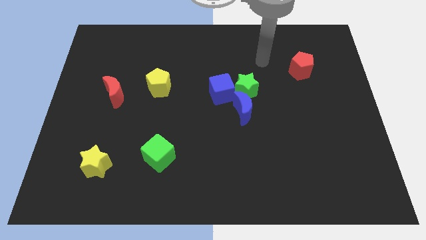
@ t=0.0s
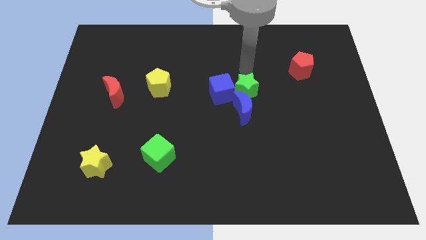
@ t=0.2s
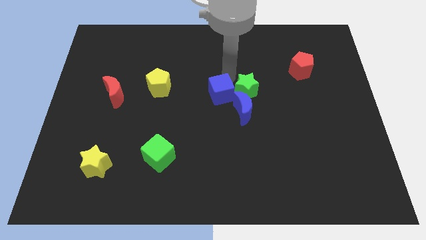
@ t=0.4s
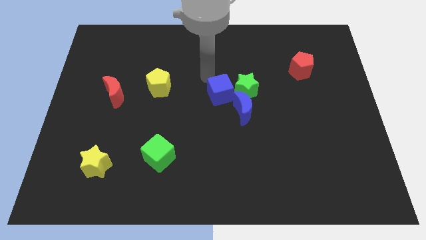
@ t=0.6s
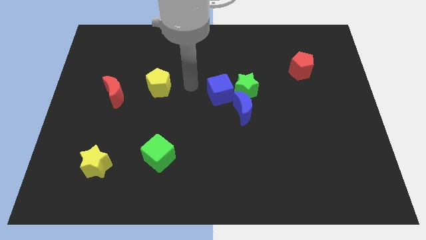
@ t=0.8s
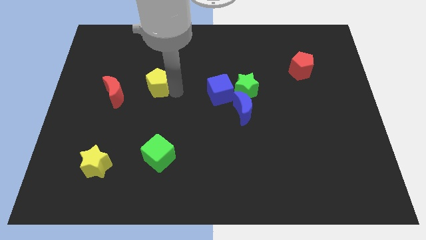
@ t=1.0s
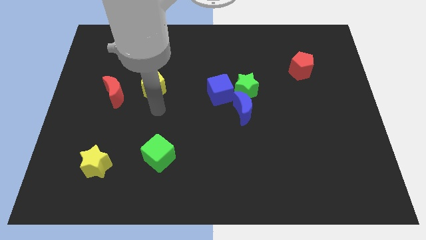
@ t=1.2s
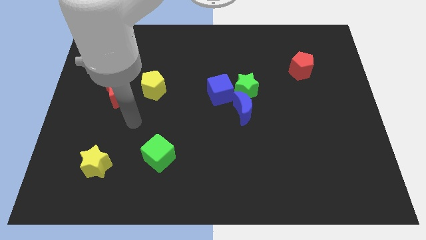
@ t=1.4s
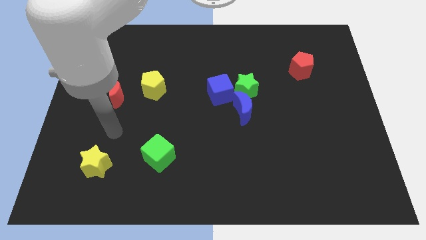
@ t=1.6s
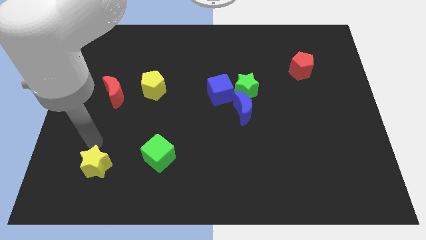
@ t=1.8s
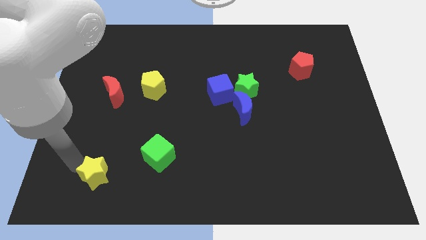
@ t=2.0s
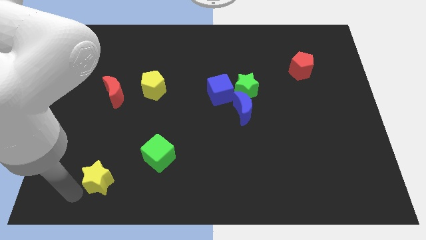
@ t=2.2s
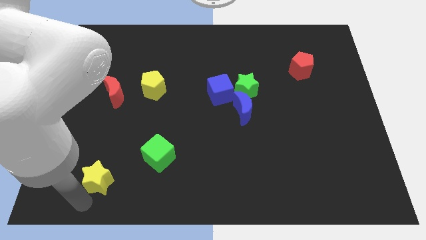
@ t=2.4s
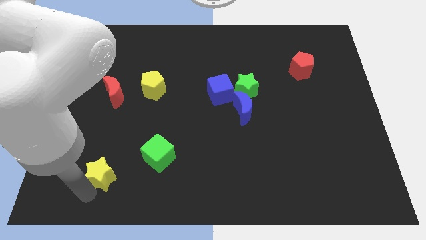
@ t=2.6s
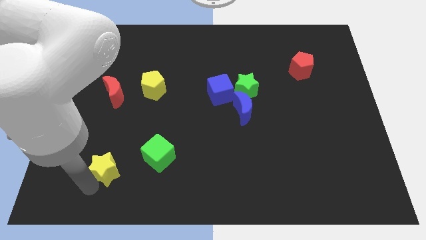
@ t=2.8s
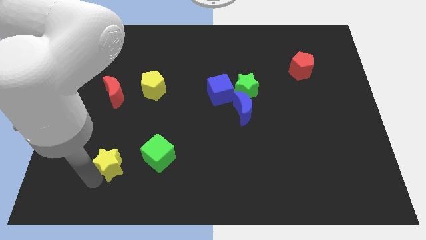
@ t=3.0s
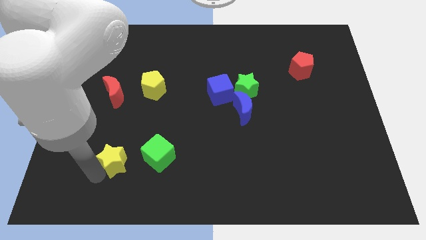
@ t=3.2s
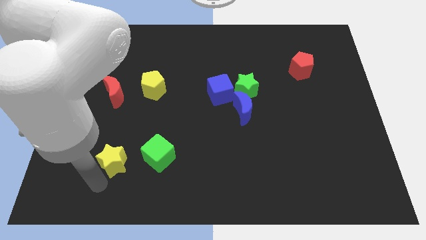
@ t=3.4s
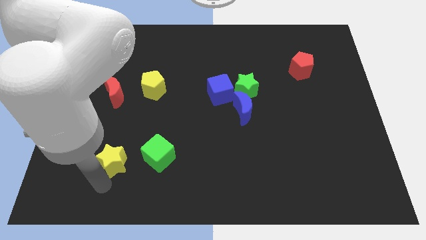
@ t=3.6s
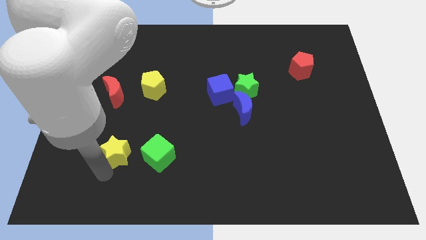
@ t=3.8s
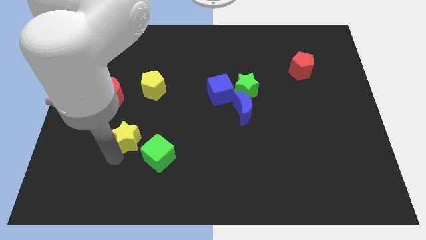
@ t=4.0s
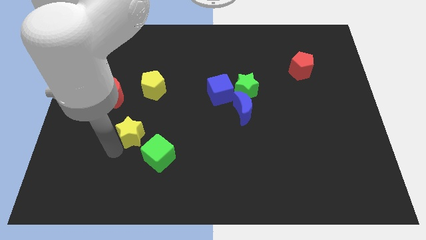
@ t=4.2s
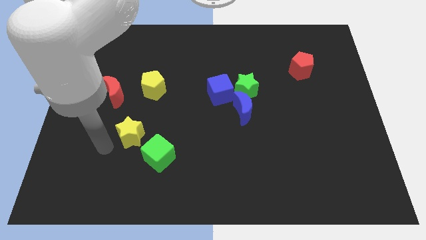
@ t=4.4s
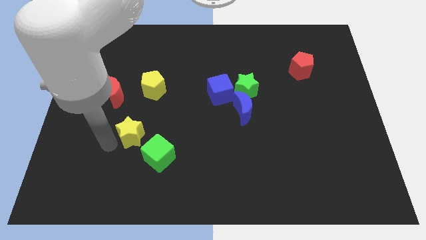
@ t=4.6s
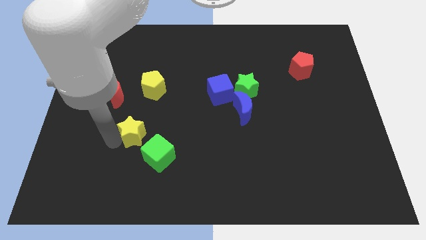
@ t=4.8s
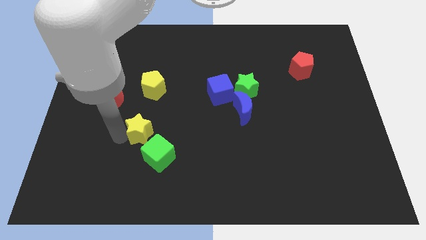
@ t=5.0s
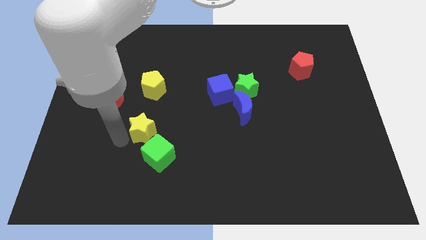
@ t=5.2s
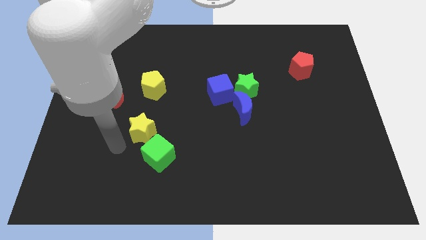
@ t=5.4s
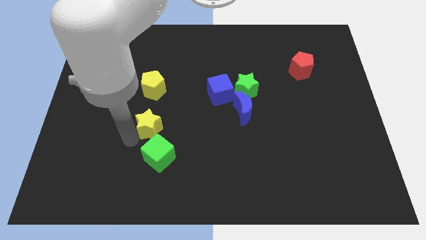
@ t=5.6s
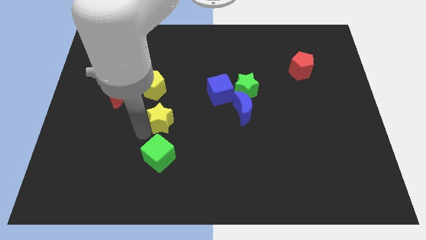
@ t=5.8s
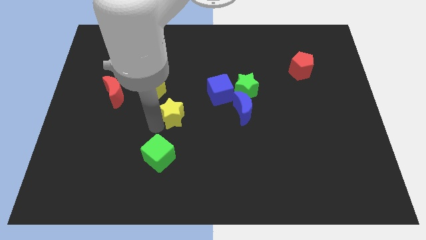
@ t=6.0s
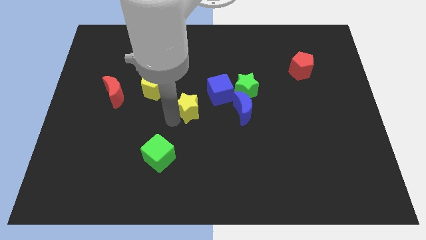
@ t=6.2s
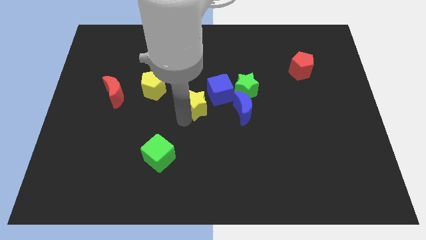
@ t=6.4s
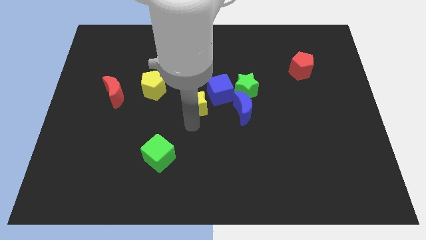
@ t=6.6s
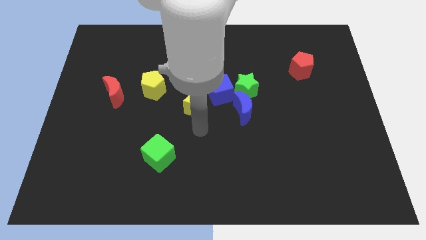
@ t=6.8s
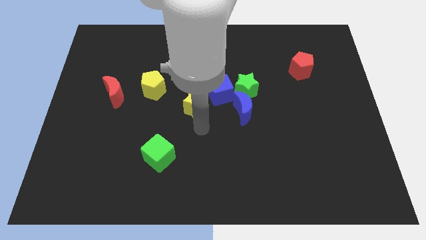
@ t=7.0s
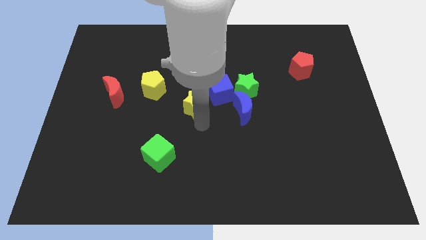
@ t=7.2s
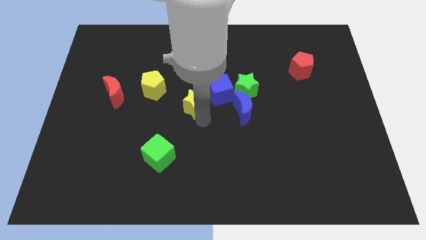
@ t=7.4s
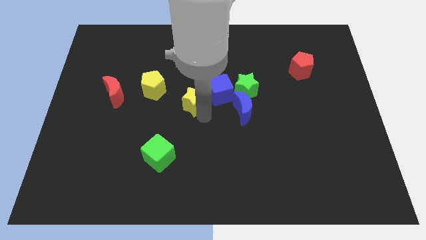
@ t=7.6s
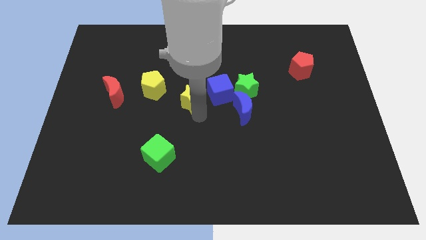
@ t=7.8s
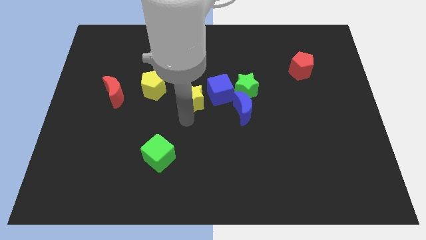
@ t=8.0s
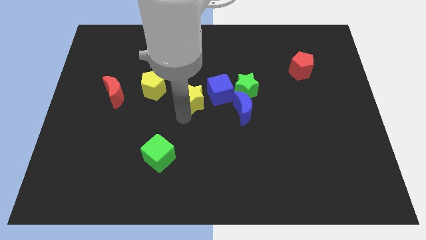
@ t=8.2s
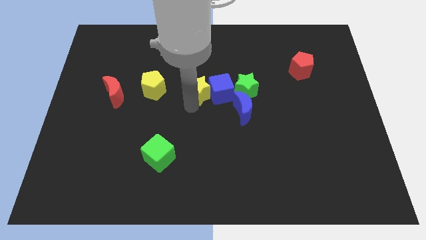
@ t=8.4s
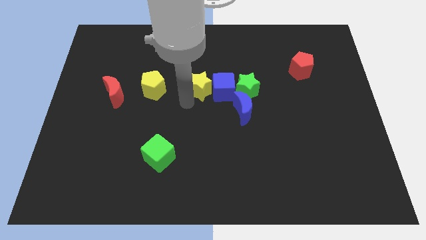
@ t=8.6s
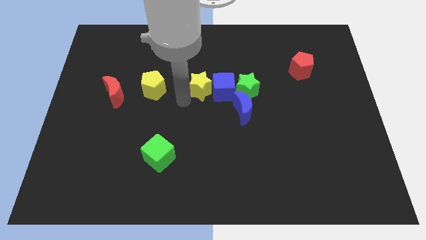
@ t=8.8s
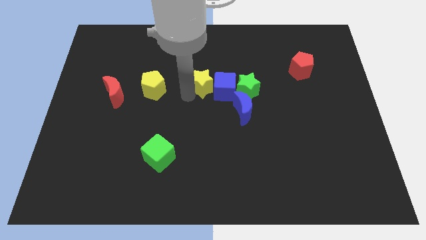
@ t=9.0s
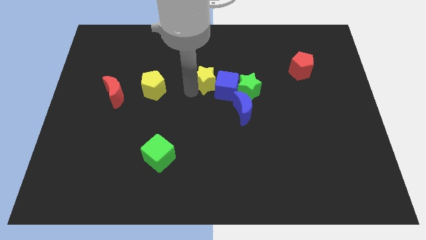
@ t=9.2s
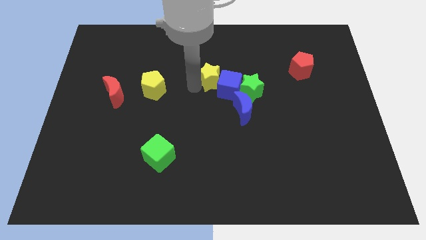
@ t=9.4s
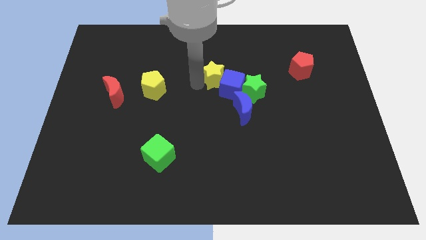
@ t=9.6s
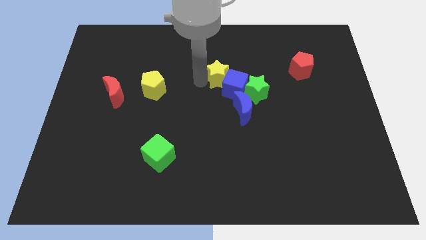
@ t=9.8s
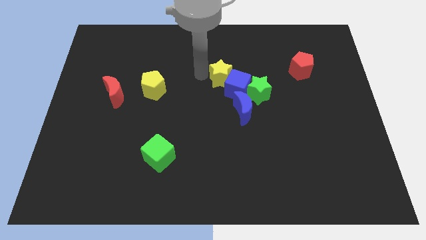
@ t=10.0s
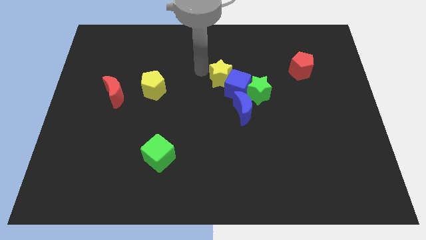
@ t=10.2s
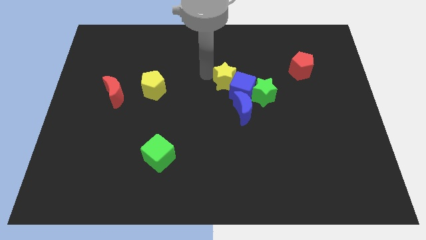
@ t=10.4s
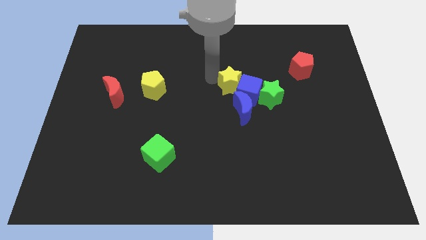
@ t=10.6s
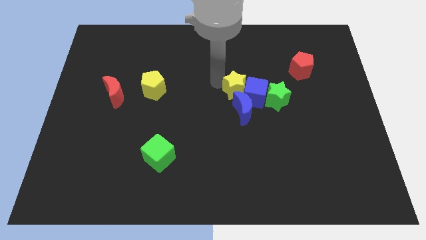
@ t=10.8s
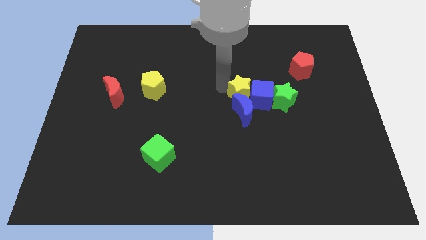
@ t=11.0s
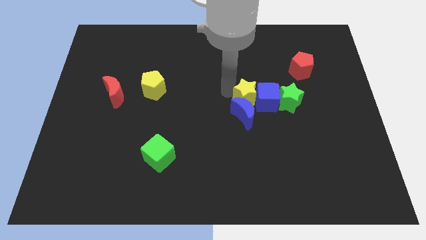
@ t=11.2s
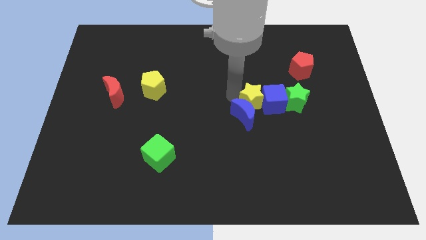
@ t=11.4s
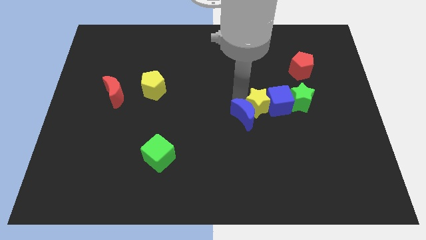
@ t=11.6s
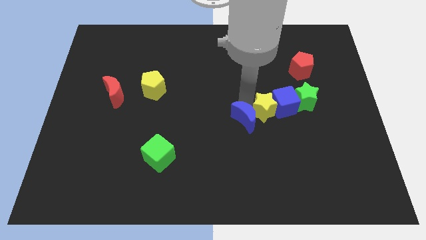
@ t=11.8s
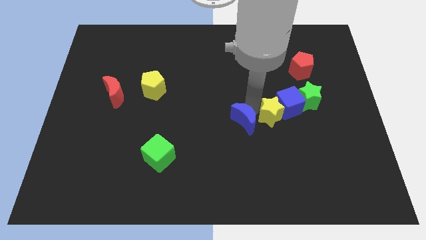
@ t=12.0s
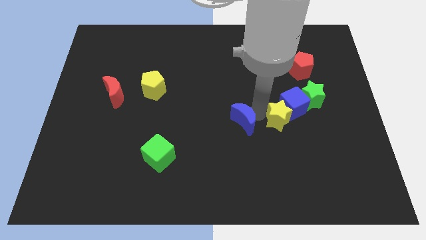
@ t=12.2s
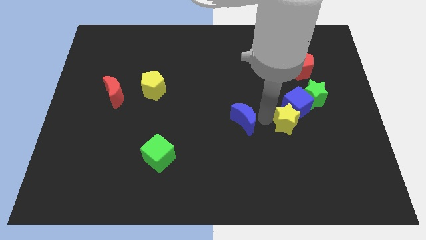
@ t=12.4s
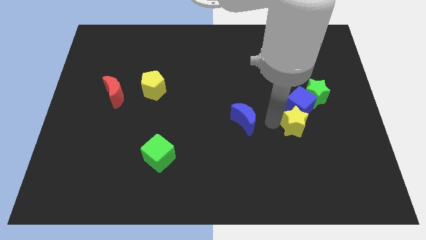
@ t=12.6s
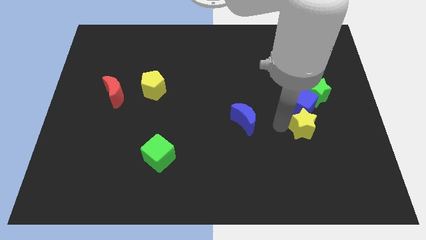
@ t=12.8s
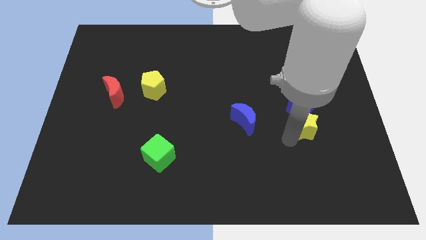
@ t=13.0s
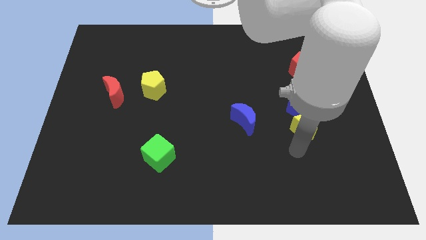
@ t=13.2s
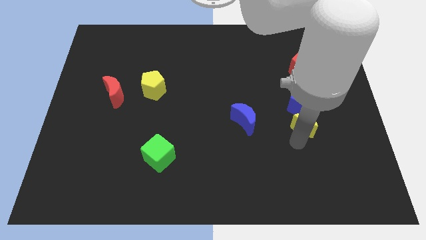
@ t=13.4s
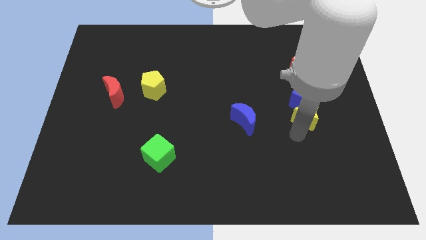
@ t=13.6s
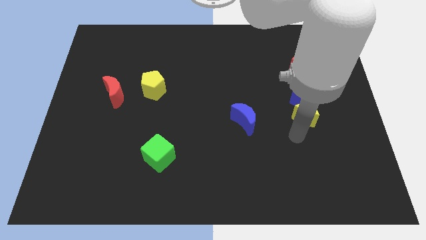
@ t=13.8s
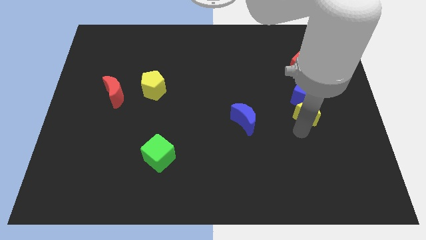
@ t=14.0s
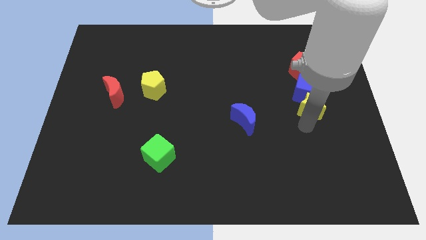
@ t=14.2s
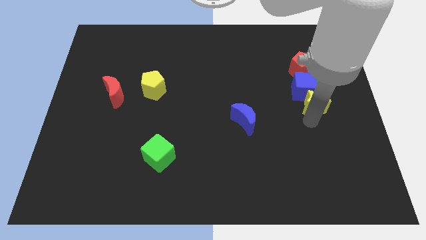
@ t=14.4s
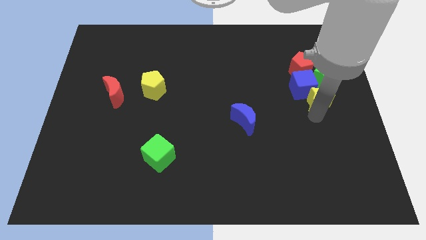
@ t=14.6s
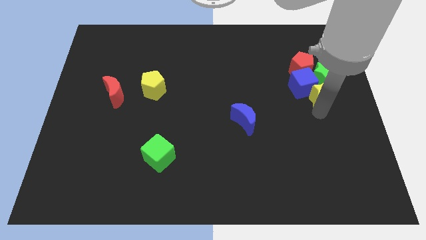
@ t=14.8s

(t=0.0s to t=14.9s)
push the yellow star next to the green star
